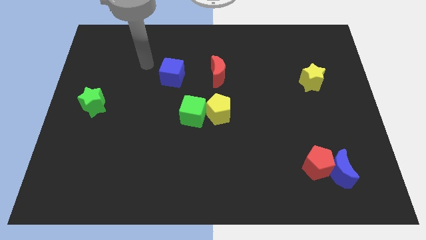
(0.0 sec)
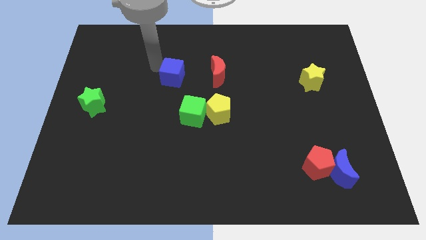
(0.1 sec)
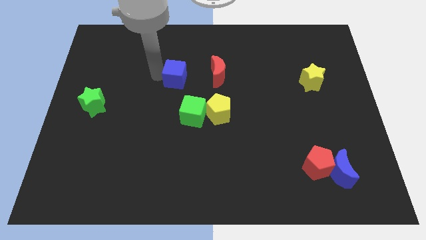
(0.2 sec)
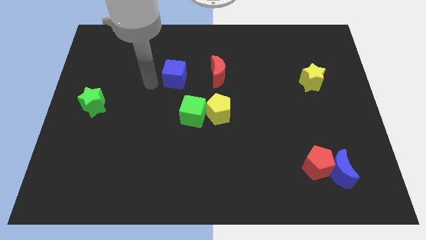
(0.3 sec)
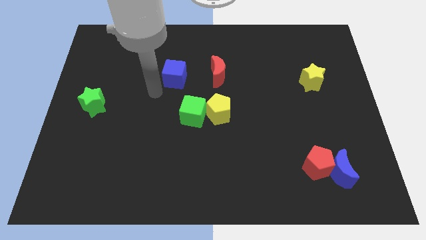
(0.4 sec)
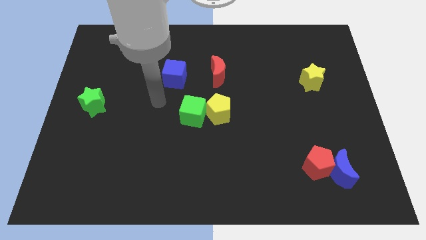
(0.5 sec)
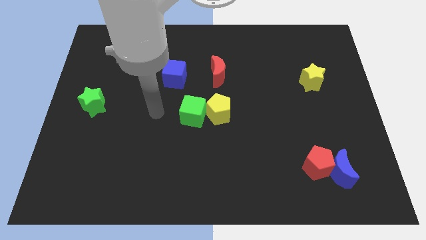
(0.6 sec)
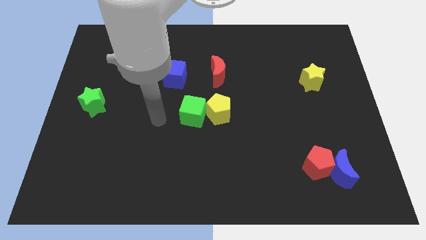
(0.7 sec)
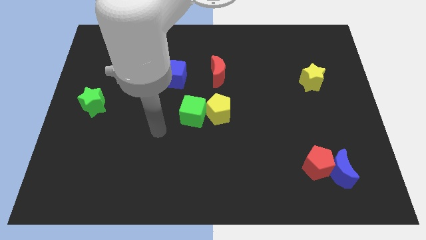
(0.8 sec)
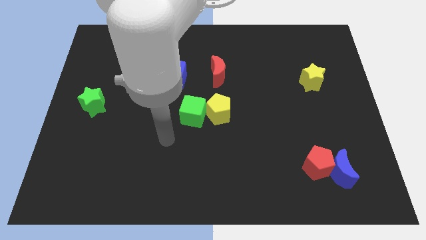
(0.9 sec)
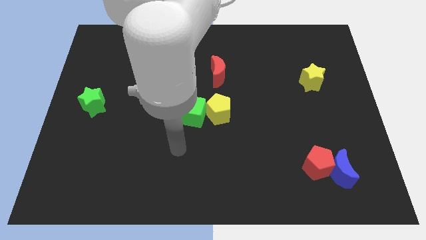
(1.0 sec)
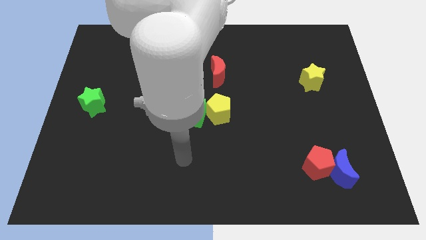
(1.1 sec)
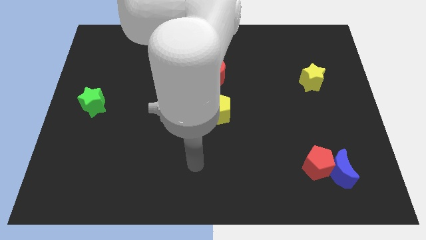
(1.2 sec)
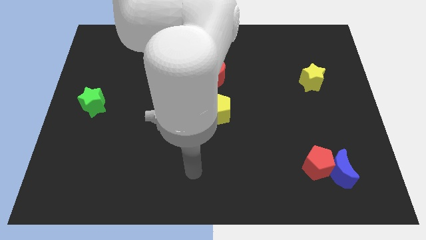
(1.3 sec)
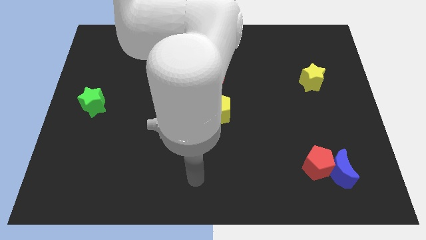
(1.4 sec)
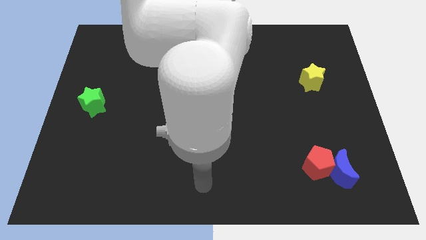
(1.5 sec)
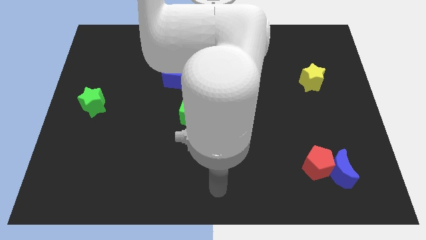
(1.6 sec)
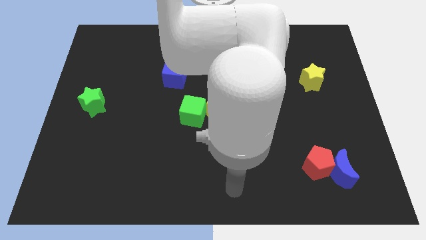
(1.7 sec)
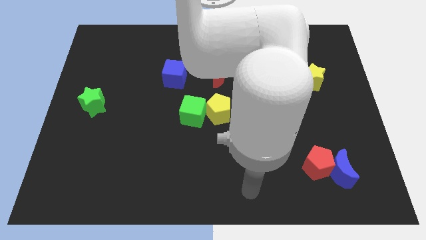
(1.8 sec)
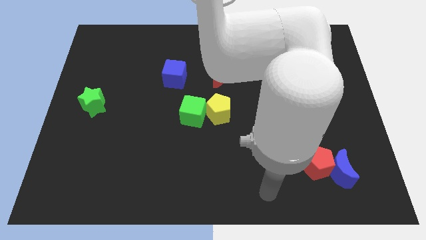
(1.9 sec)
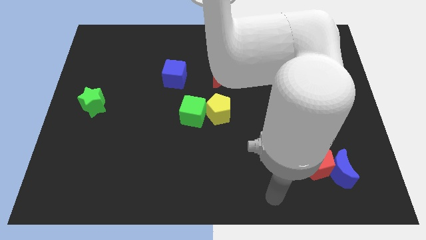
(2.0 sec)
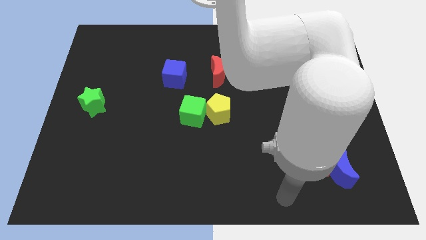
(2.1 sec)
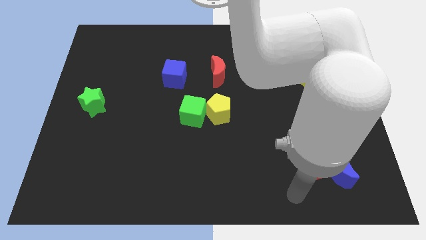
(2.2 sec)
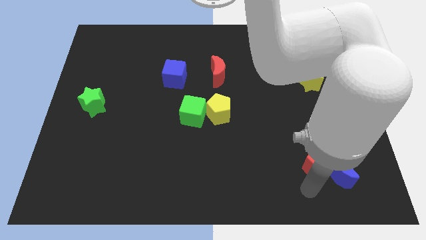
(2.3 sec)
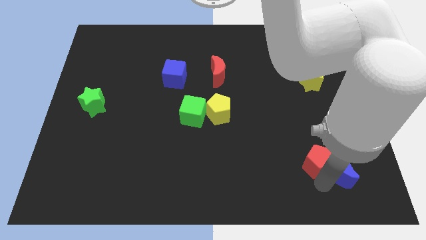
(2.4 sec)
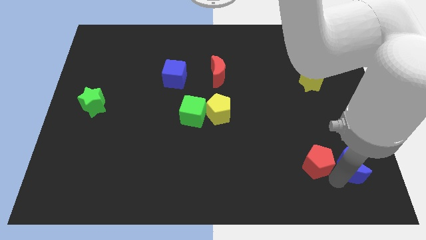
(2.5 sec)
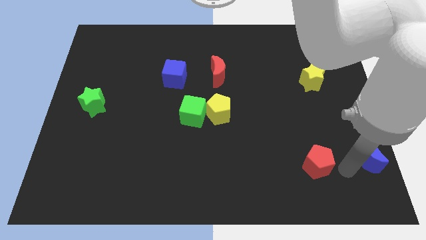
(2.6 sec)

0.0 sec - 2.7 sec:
move the red pentagon away from the blue moon

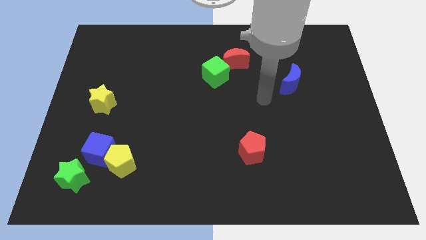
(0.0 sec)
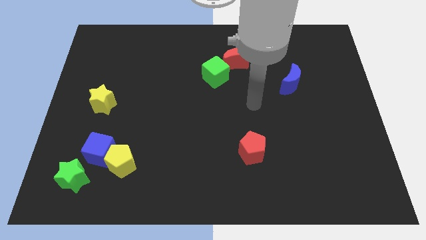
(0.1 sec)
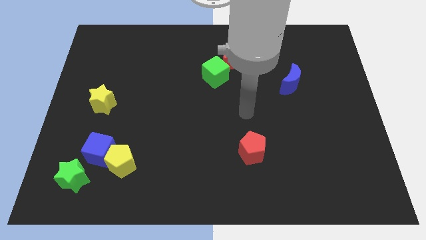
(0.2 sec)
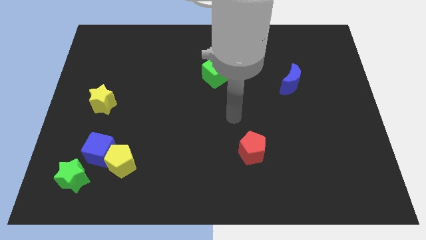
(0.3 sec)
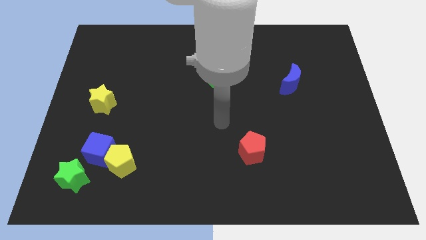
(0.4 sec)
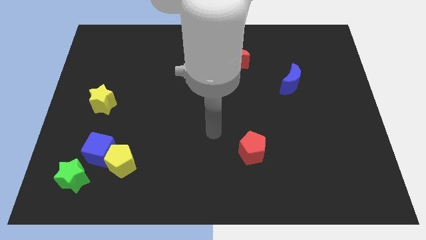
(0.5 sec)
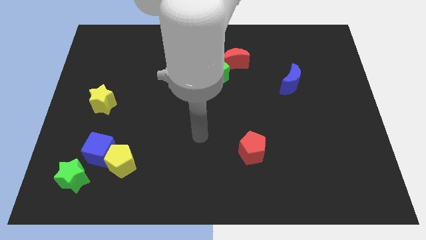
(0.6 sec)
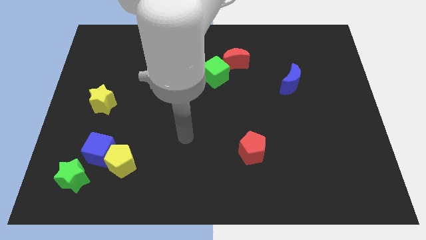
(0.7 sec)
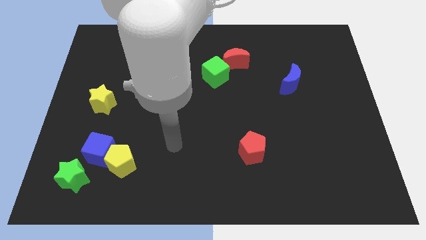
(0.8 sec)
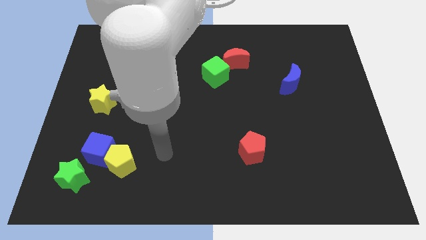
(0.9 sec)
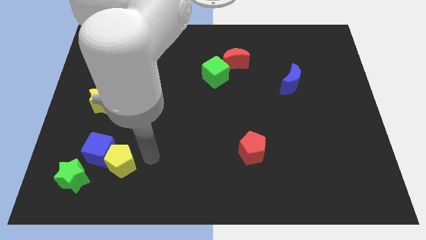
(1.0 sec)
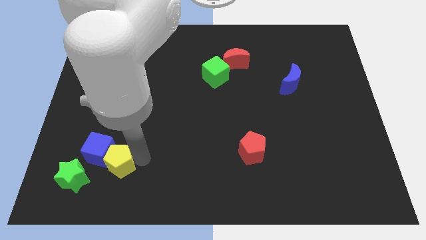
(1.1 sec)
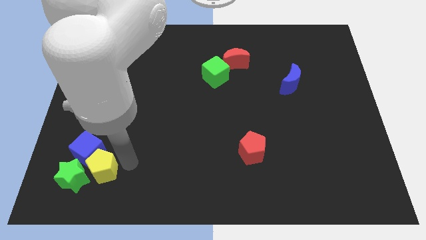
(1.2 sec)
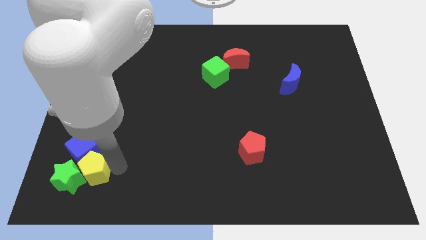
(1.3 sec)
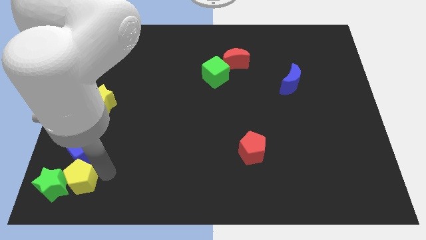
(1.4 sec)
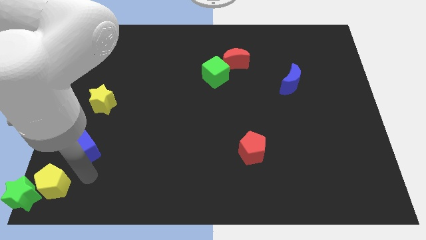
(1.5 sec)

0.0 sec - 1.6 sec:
separate the blue cube from the yellow pentagon and green star

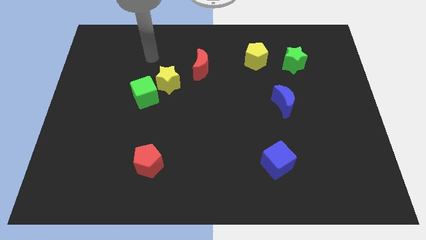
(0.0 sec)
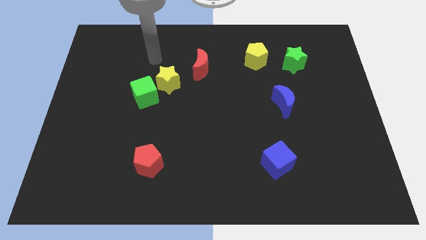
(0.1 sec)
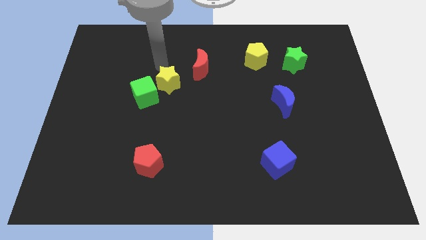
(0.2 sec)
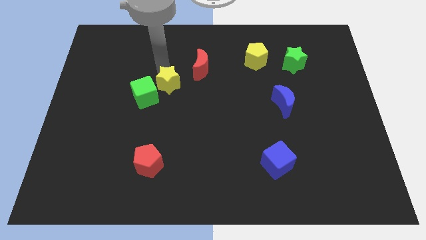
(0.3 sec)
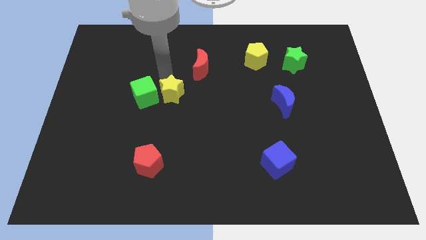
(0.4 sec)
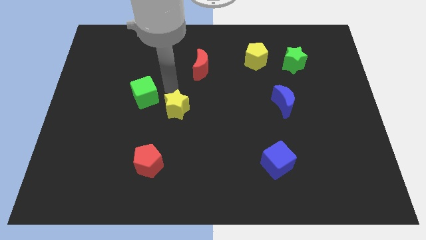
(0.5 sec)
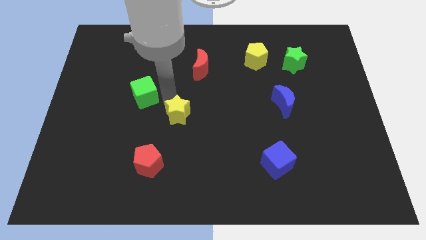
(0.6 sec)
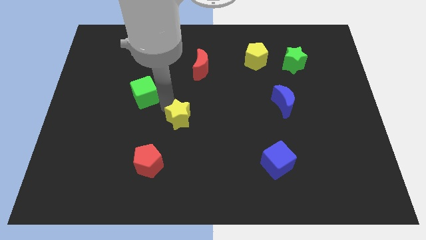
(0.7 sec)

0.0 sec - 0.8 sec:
separate the green cube from the yellow star

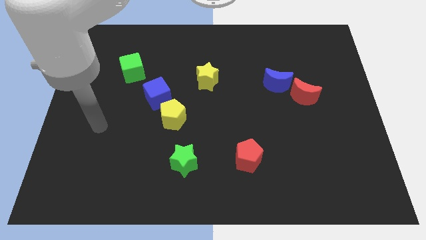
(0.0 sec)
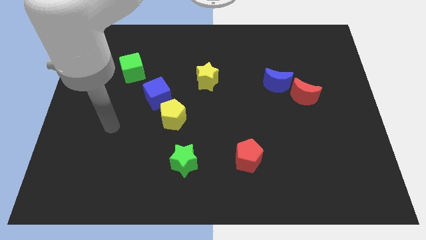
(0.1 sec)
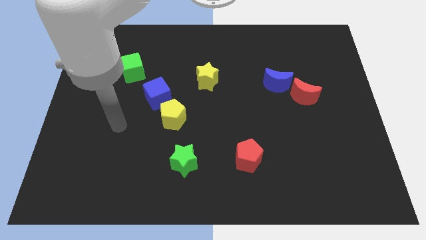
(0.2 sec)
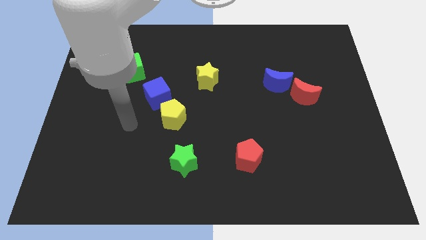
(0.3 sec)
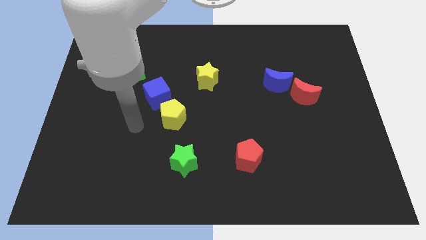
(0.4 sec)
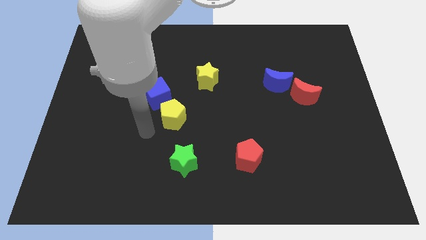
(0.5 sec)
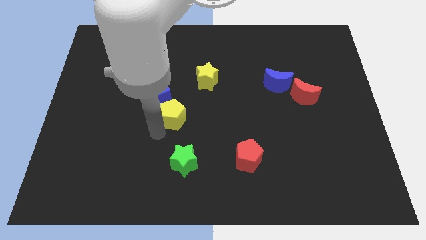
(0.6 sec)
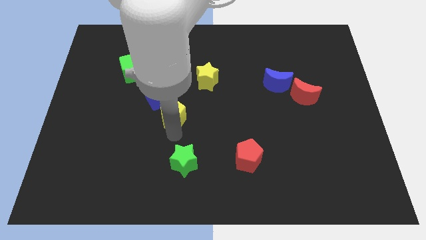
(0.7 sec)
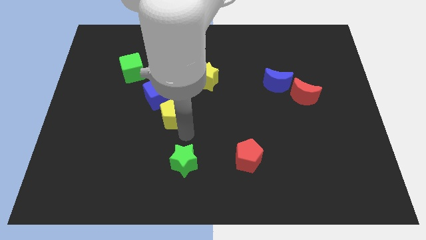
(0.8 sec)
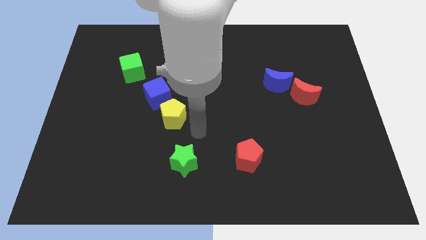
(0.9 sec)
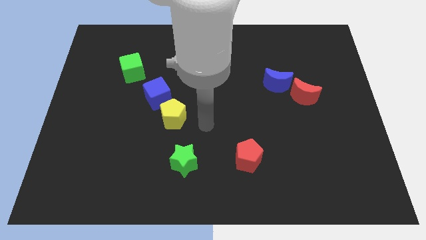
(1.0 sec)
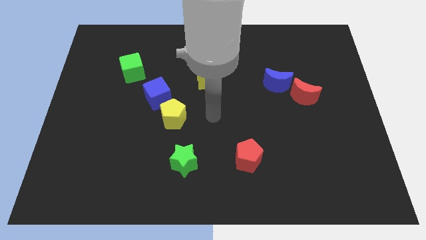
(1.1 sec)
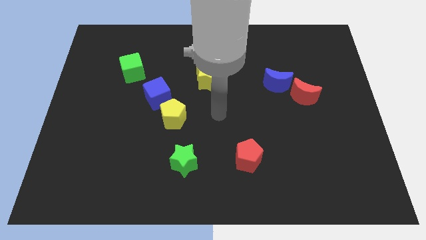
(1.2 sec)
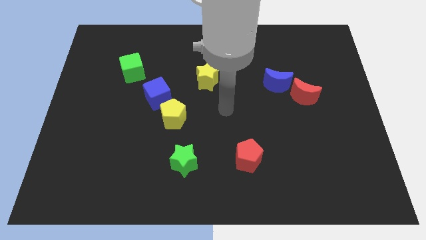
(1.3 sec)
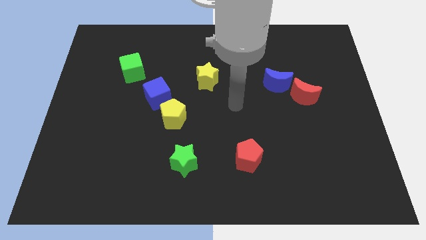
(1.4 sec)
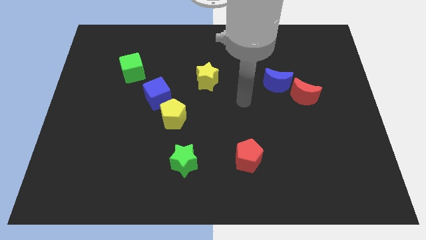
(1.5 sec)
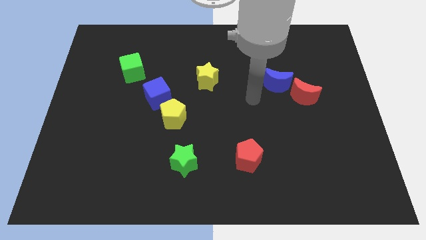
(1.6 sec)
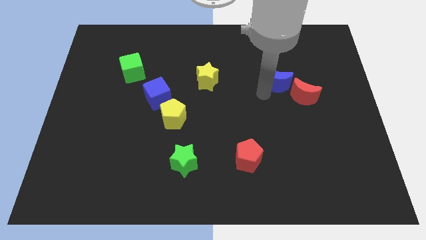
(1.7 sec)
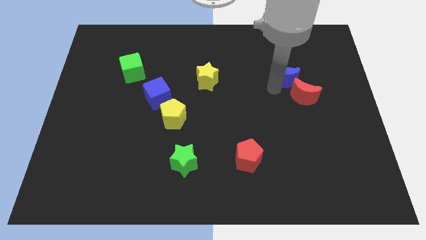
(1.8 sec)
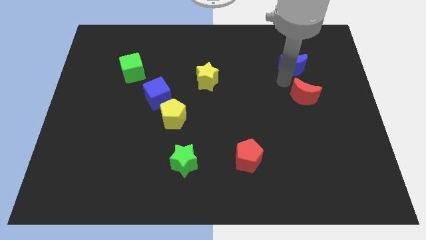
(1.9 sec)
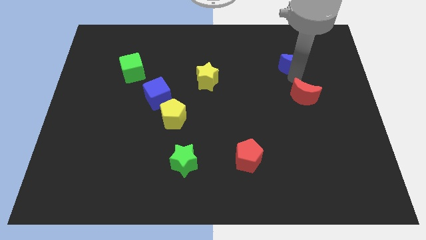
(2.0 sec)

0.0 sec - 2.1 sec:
move the red moon away from the blue moon

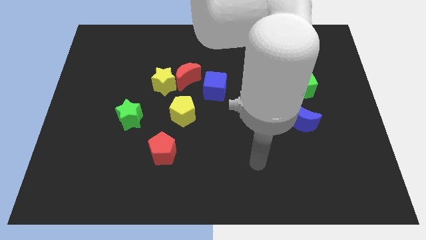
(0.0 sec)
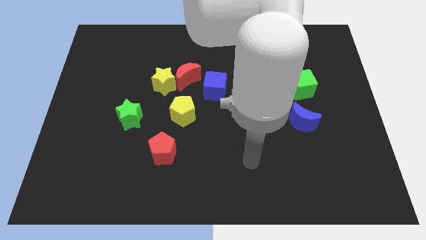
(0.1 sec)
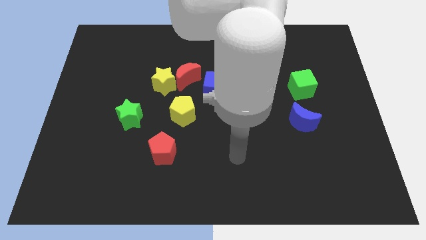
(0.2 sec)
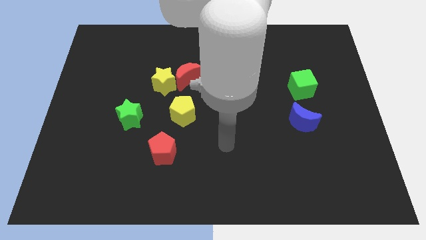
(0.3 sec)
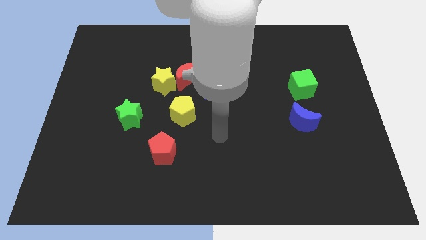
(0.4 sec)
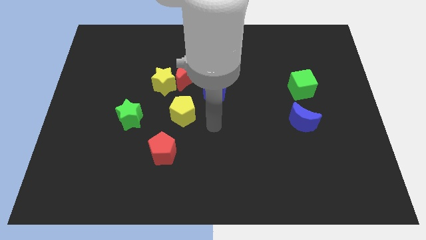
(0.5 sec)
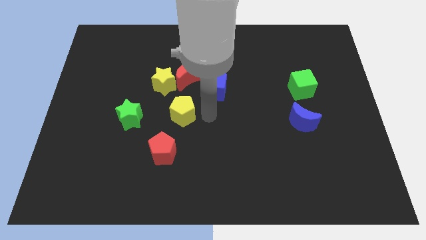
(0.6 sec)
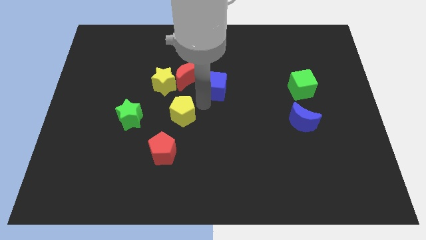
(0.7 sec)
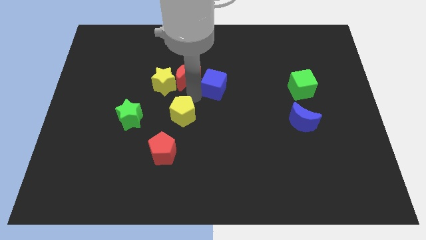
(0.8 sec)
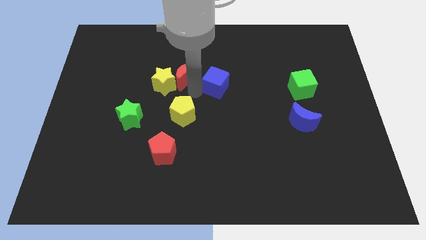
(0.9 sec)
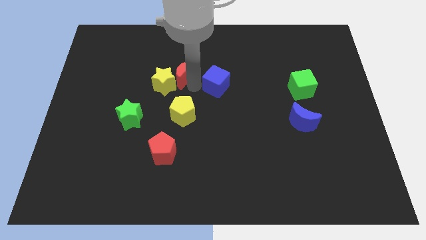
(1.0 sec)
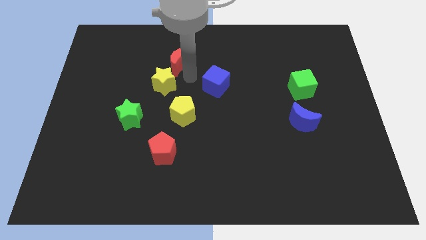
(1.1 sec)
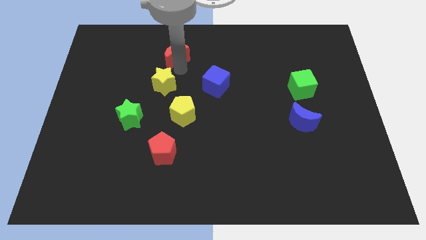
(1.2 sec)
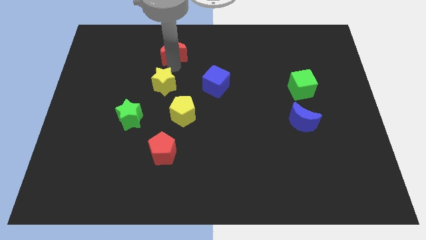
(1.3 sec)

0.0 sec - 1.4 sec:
pull the yellow star apart from the red moon

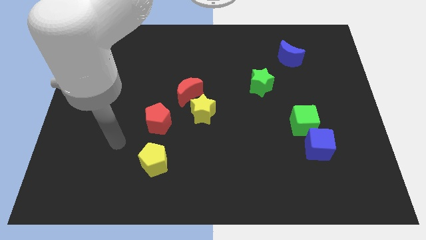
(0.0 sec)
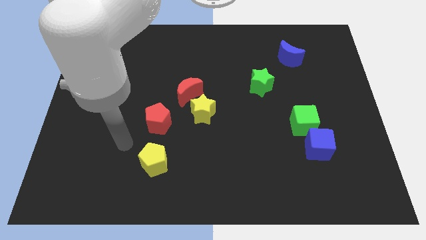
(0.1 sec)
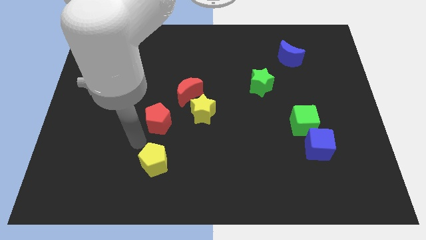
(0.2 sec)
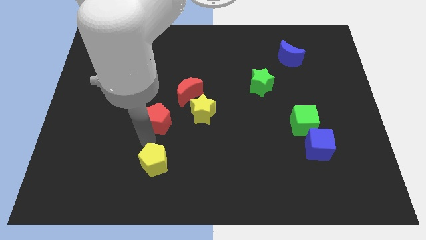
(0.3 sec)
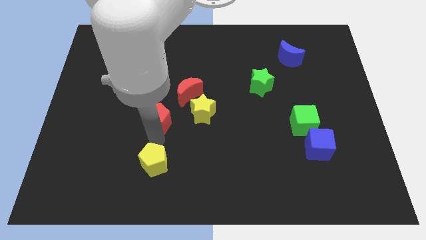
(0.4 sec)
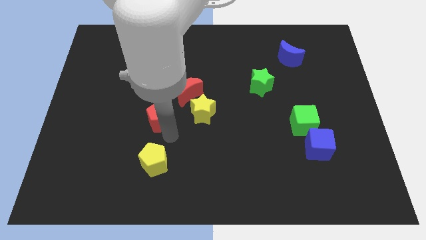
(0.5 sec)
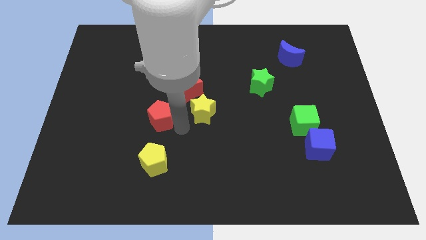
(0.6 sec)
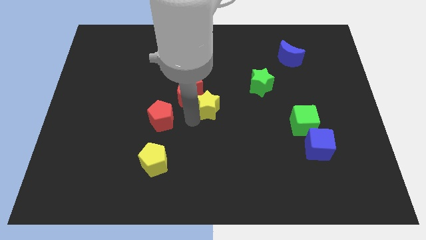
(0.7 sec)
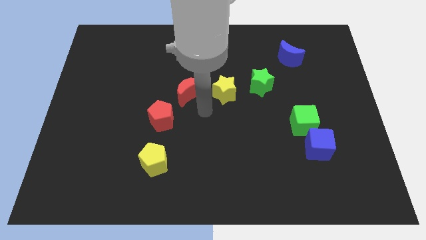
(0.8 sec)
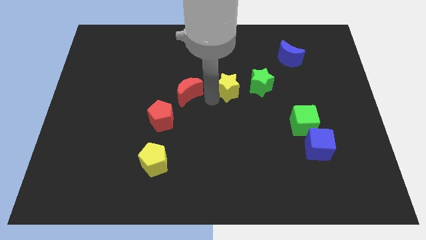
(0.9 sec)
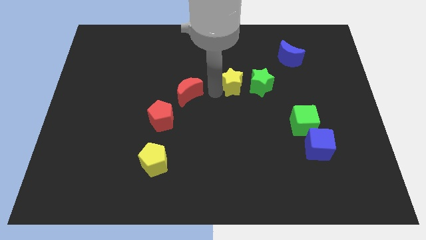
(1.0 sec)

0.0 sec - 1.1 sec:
separate the red moon from the yellow star
